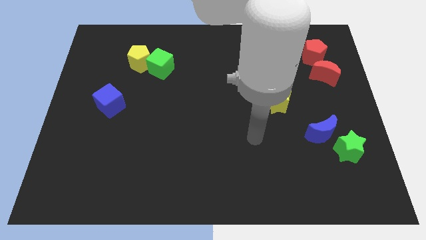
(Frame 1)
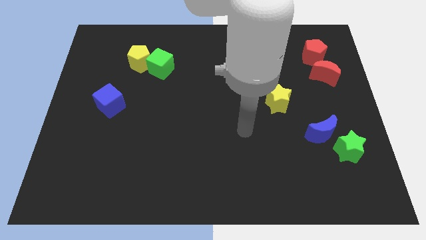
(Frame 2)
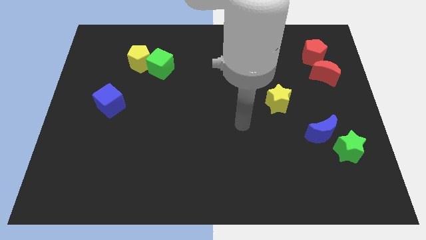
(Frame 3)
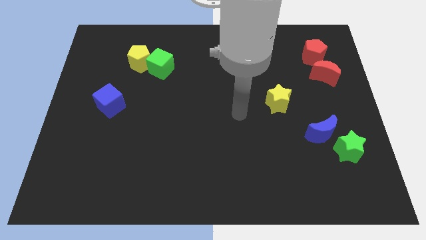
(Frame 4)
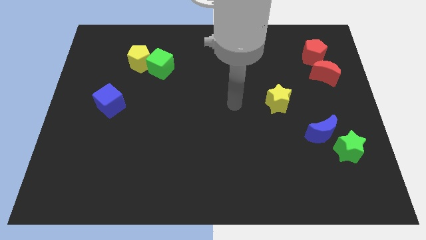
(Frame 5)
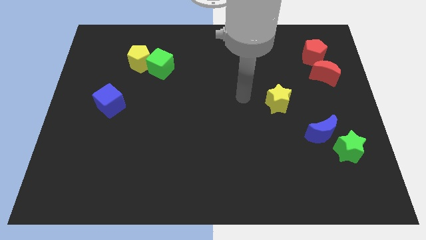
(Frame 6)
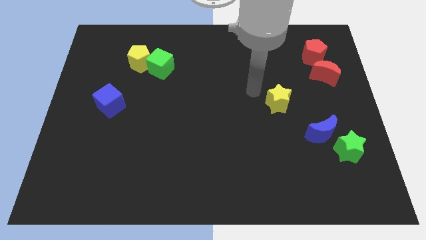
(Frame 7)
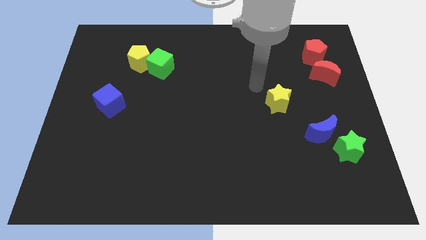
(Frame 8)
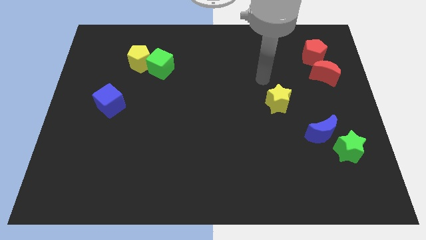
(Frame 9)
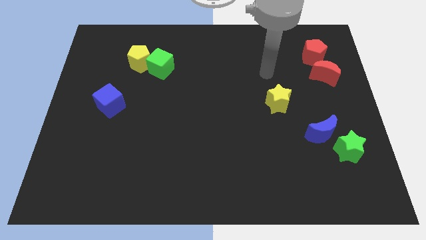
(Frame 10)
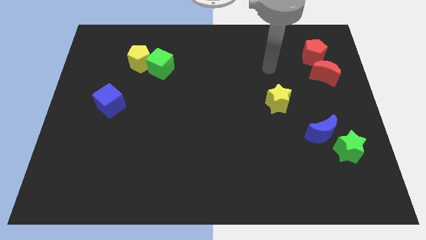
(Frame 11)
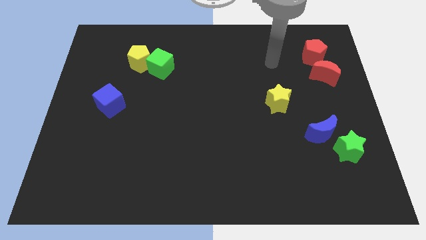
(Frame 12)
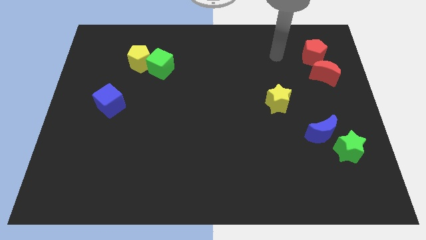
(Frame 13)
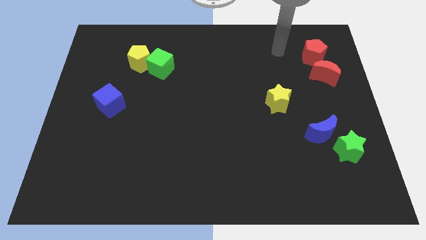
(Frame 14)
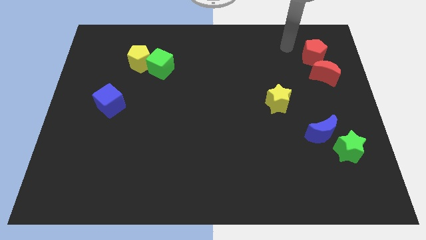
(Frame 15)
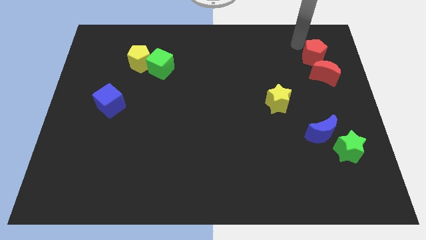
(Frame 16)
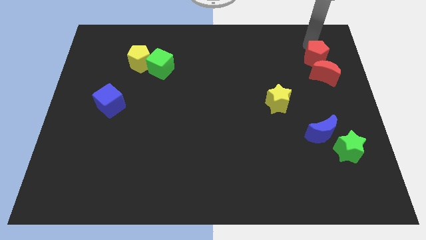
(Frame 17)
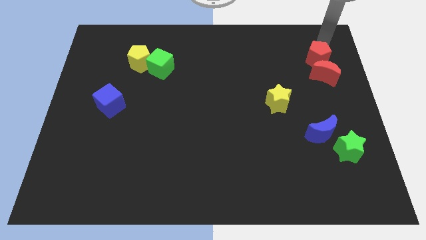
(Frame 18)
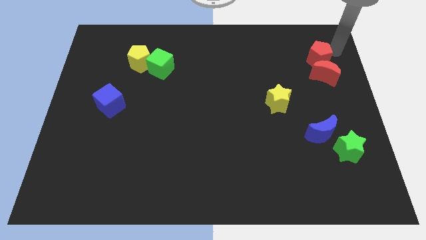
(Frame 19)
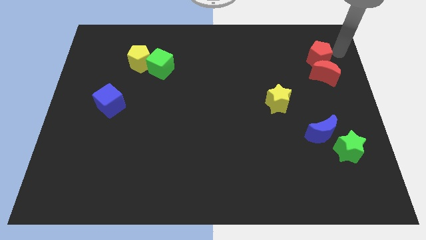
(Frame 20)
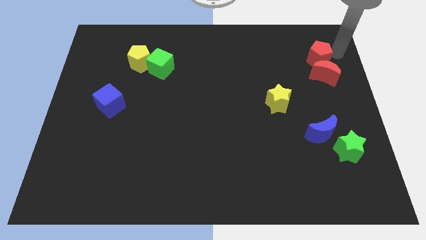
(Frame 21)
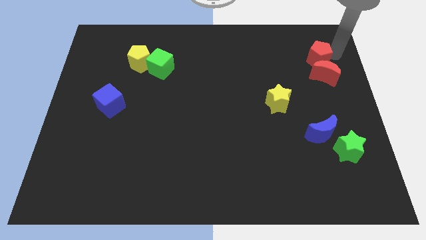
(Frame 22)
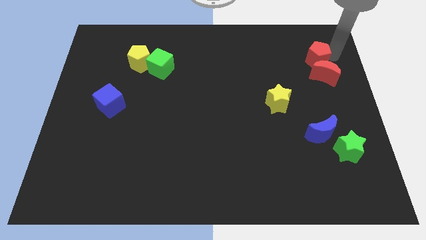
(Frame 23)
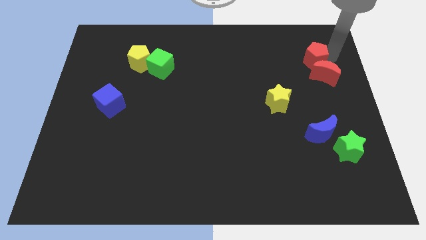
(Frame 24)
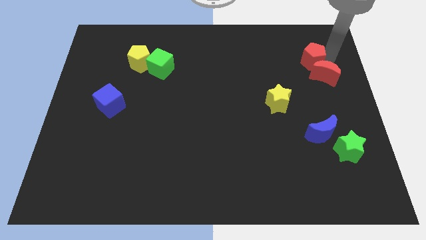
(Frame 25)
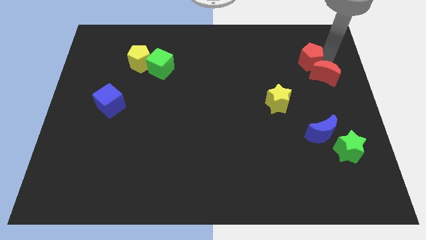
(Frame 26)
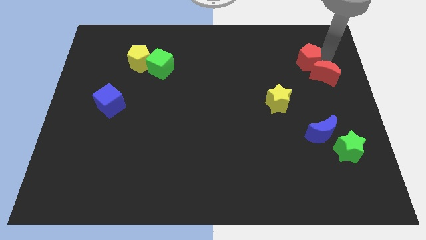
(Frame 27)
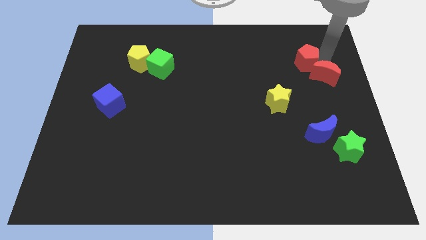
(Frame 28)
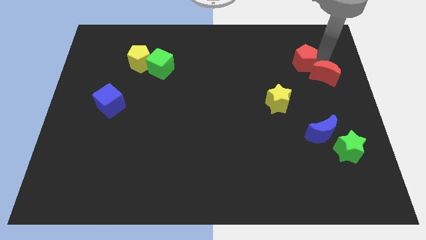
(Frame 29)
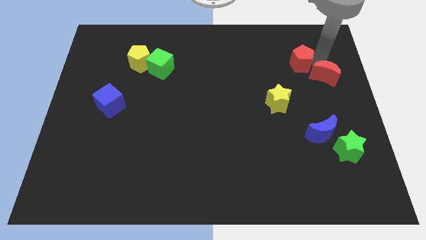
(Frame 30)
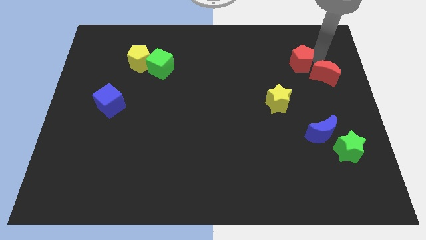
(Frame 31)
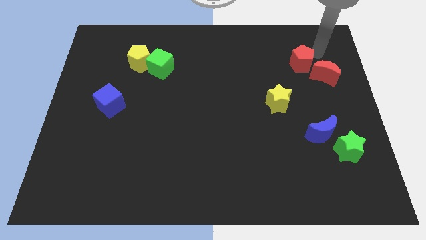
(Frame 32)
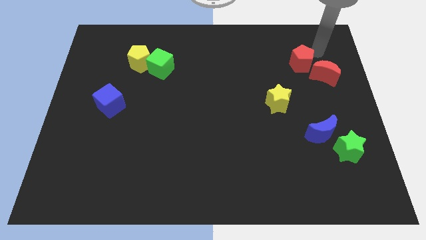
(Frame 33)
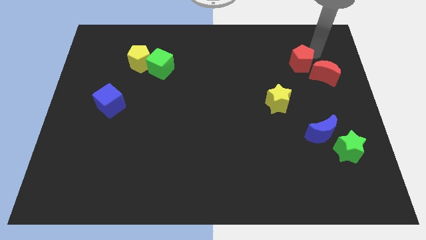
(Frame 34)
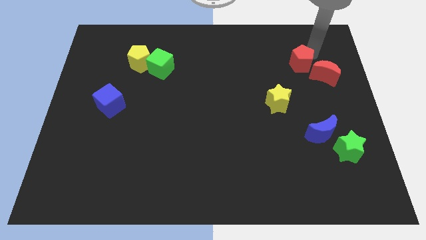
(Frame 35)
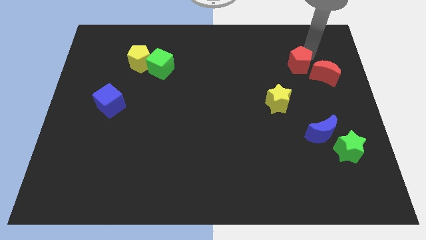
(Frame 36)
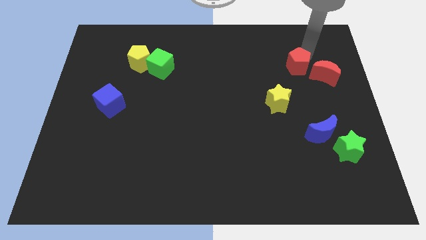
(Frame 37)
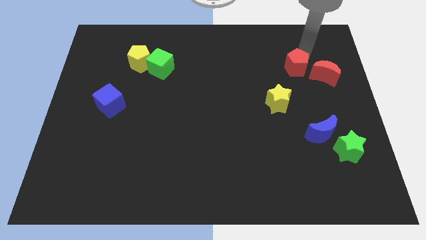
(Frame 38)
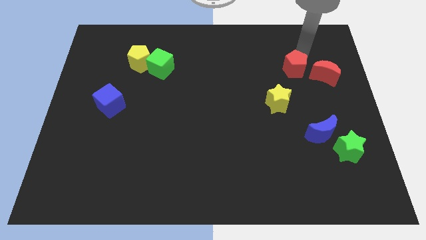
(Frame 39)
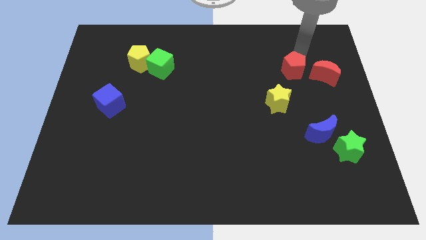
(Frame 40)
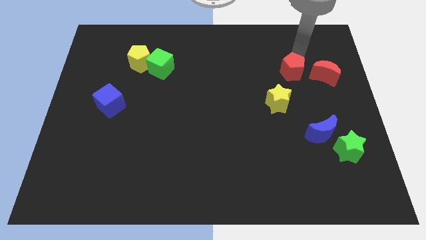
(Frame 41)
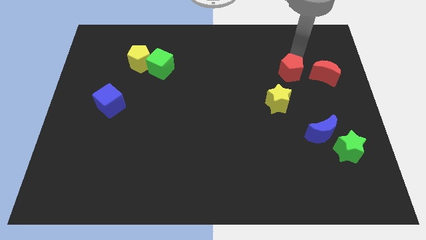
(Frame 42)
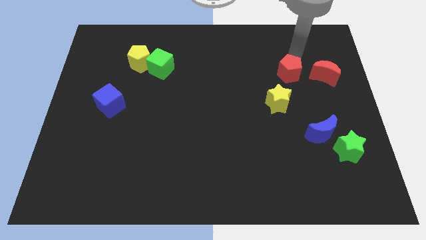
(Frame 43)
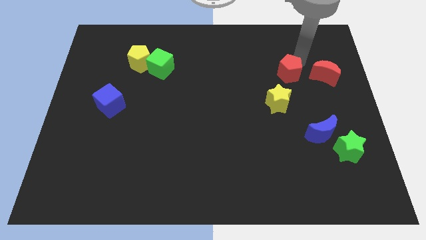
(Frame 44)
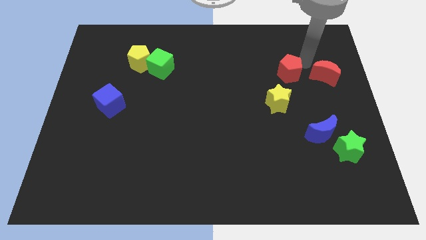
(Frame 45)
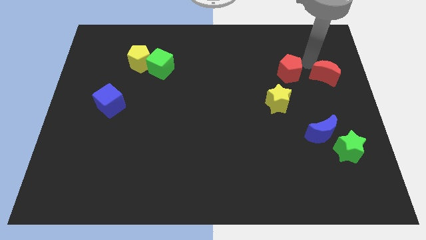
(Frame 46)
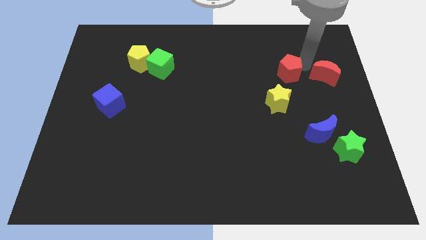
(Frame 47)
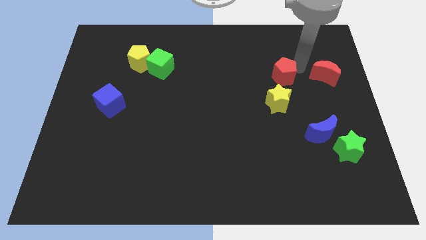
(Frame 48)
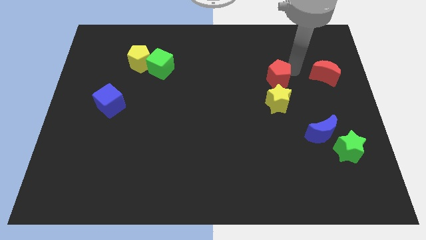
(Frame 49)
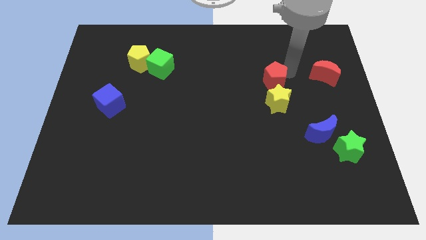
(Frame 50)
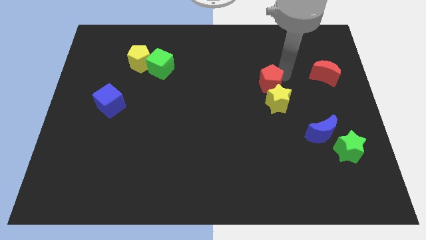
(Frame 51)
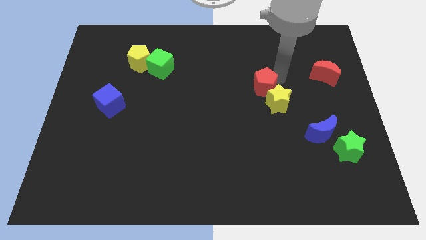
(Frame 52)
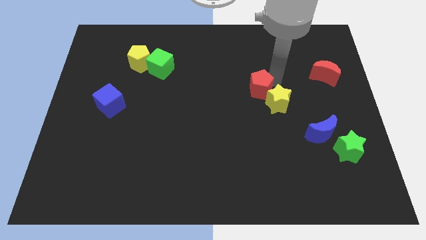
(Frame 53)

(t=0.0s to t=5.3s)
put the red pentagon to the middle

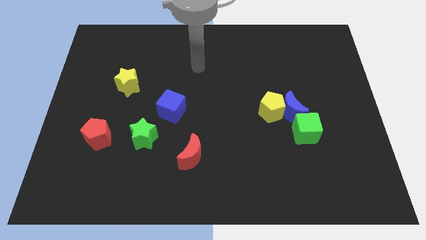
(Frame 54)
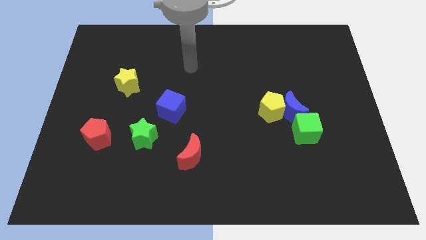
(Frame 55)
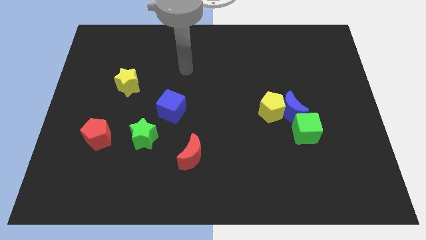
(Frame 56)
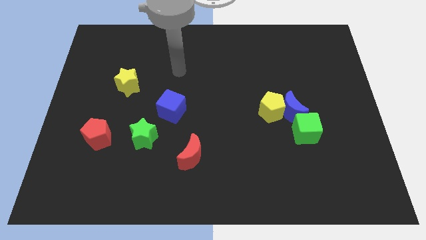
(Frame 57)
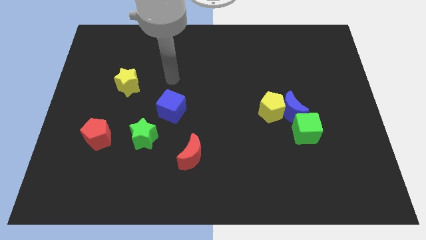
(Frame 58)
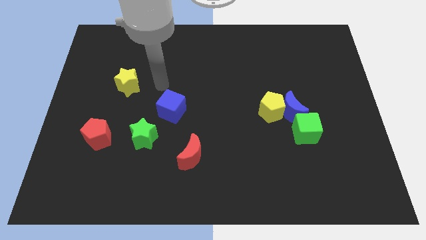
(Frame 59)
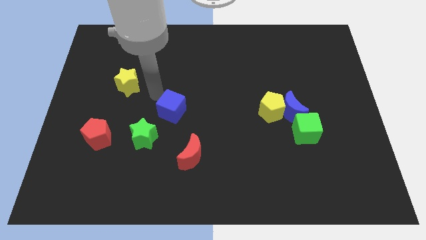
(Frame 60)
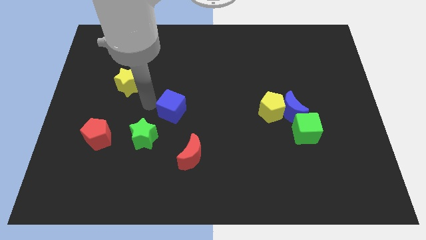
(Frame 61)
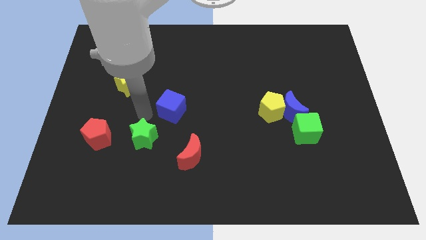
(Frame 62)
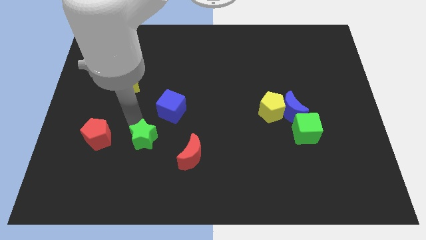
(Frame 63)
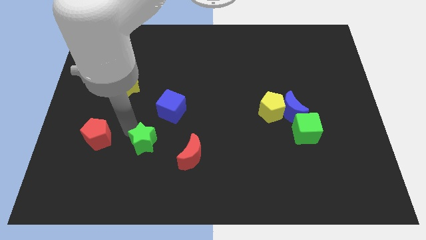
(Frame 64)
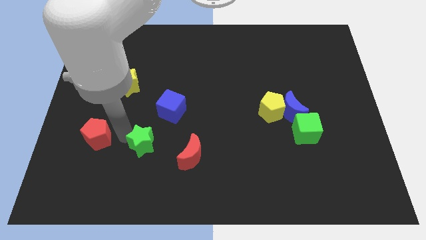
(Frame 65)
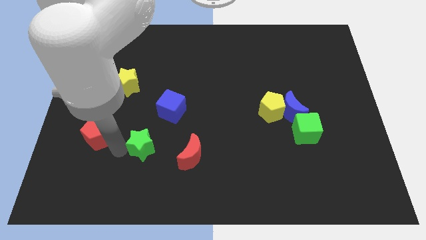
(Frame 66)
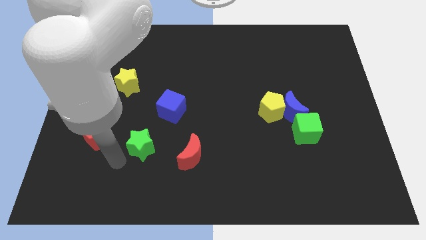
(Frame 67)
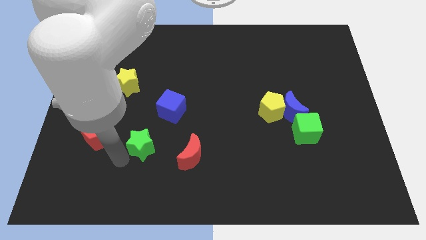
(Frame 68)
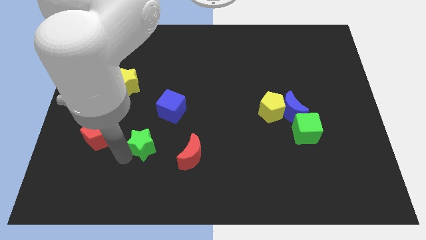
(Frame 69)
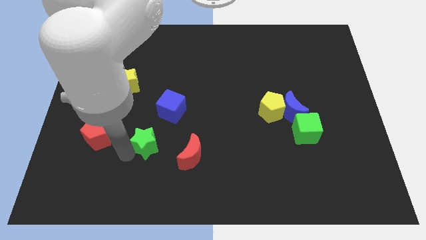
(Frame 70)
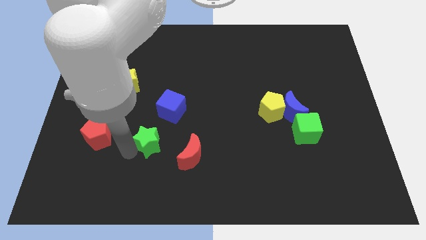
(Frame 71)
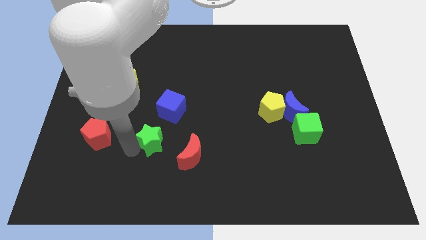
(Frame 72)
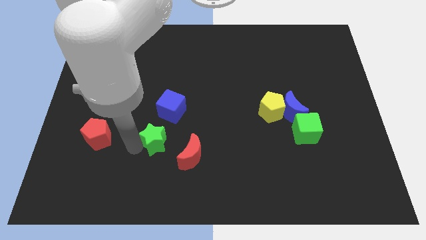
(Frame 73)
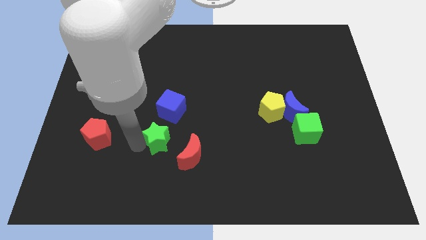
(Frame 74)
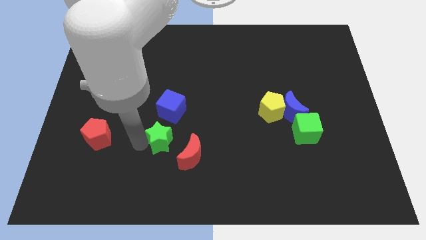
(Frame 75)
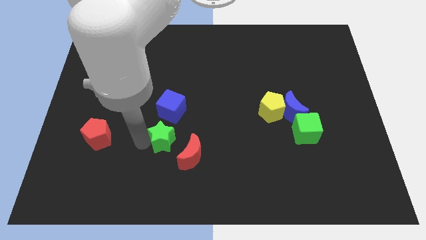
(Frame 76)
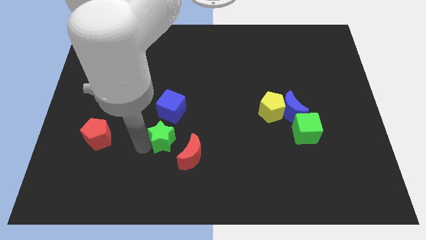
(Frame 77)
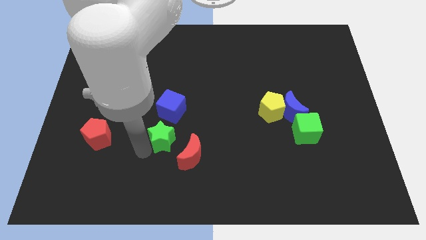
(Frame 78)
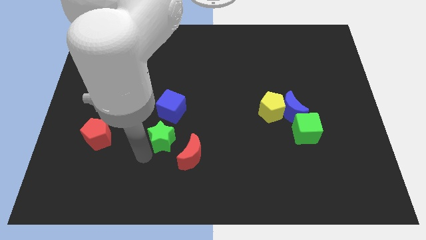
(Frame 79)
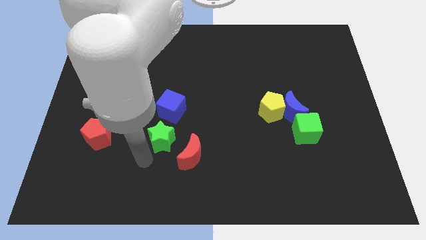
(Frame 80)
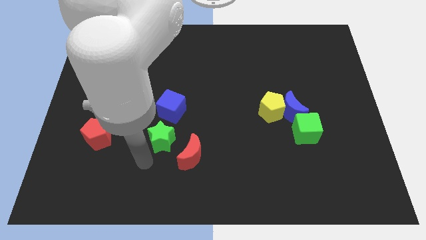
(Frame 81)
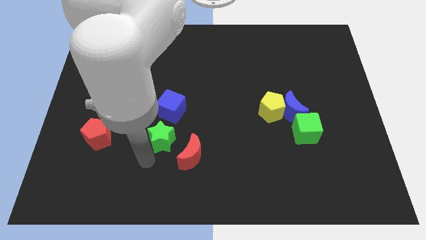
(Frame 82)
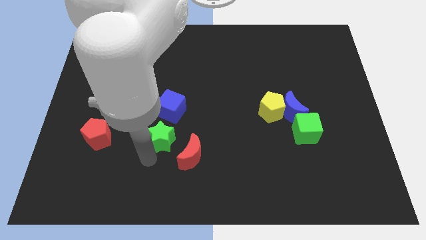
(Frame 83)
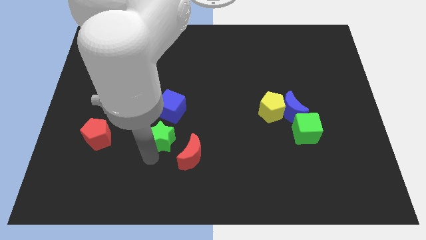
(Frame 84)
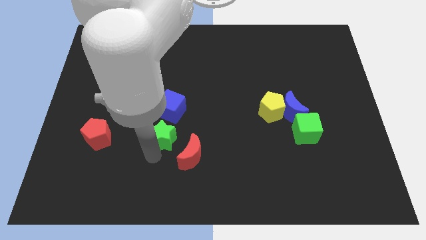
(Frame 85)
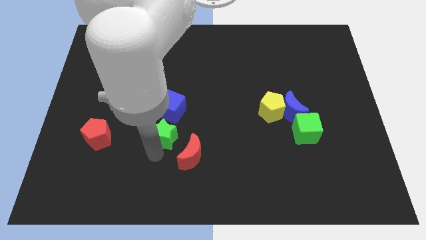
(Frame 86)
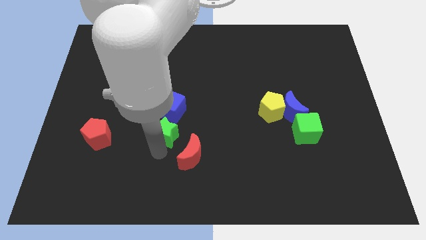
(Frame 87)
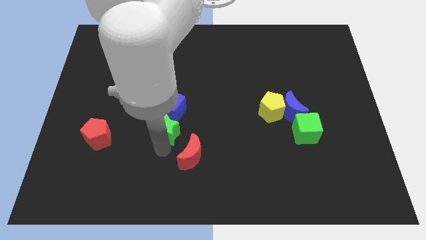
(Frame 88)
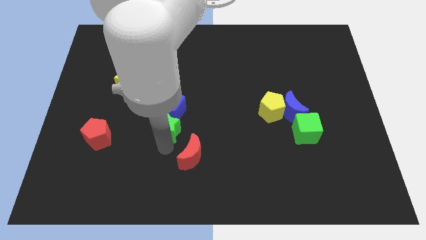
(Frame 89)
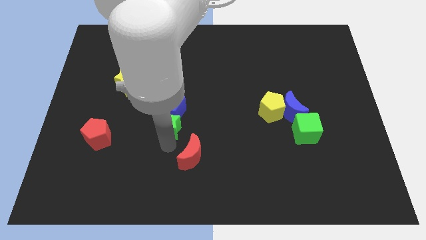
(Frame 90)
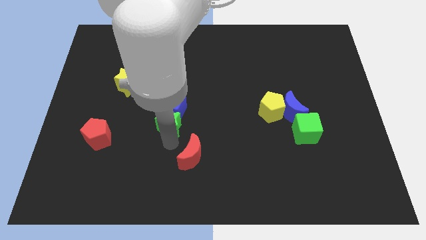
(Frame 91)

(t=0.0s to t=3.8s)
push the green star to the middle of the board
